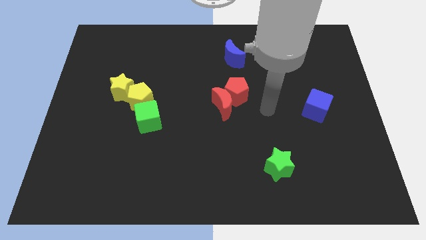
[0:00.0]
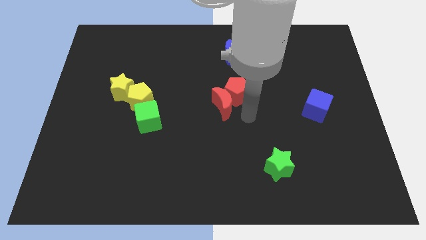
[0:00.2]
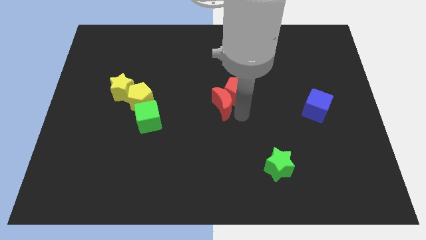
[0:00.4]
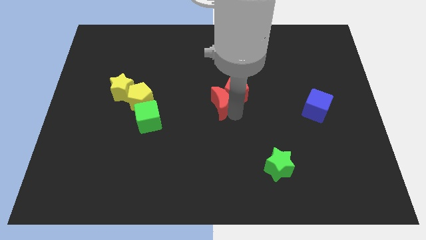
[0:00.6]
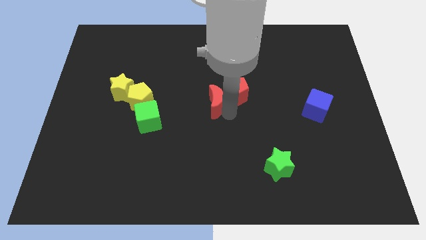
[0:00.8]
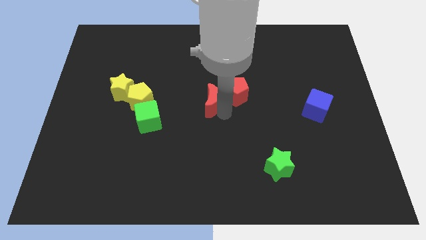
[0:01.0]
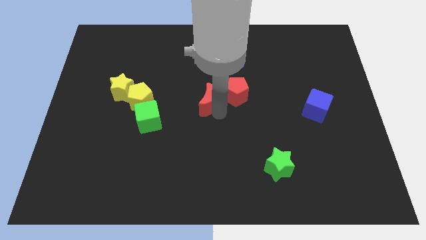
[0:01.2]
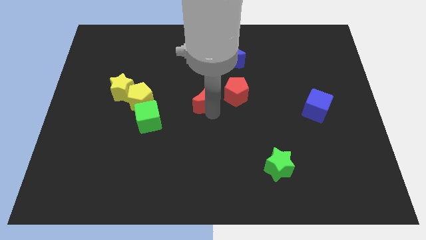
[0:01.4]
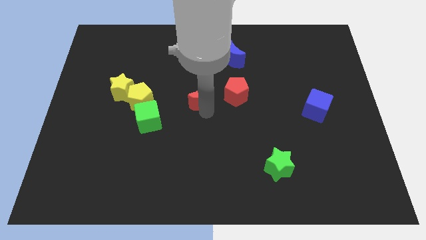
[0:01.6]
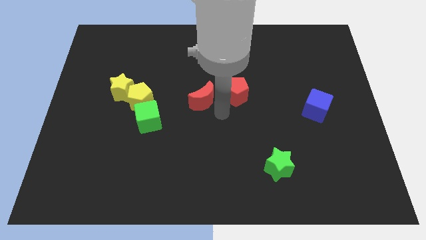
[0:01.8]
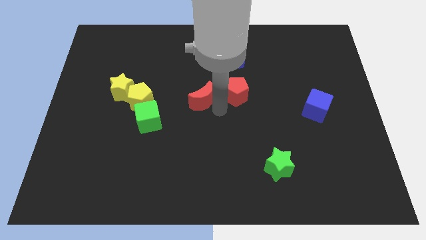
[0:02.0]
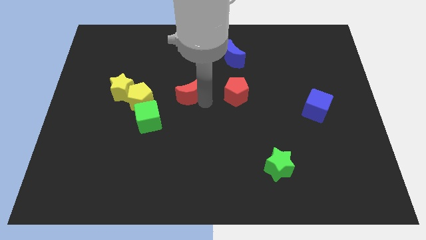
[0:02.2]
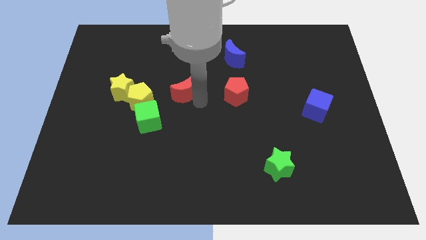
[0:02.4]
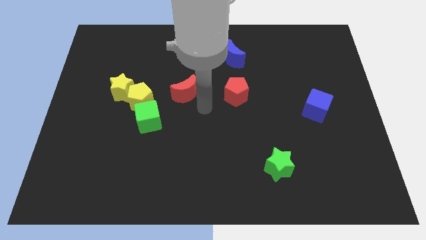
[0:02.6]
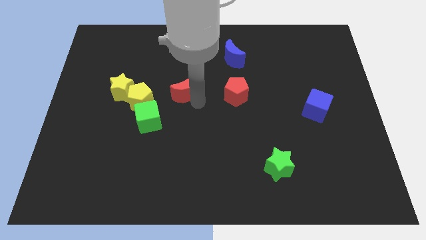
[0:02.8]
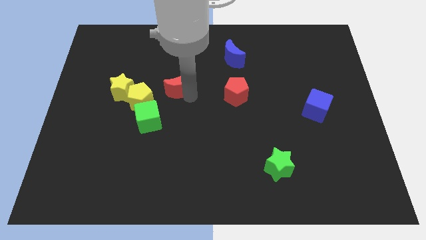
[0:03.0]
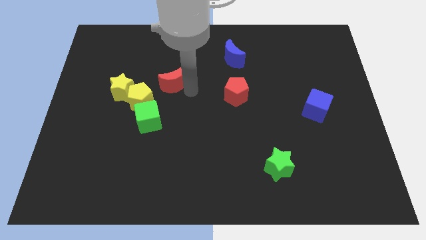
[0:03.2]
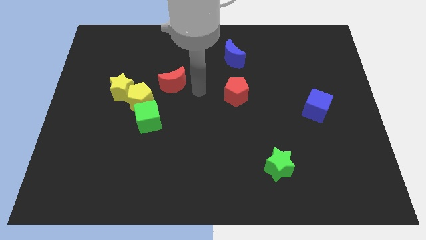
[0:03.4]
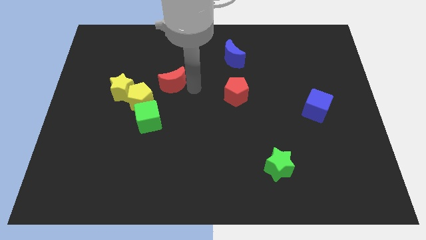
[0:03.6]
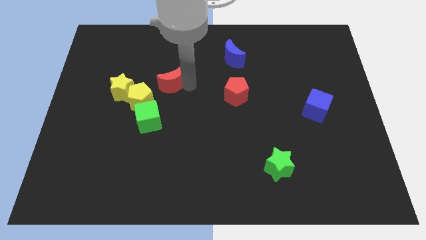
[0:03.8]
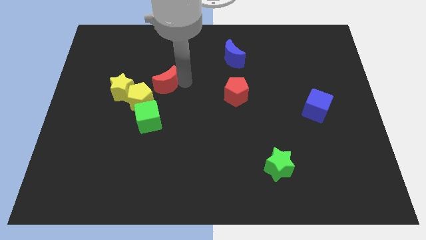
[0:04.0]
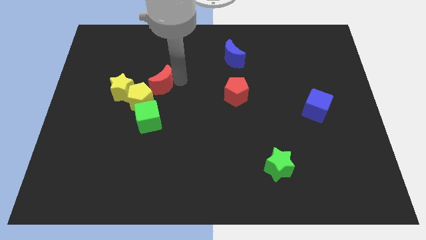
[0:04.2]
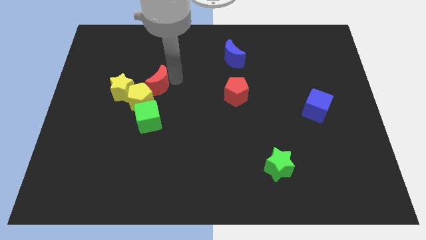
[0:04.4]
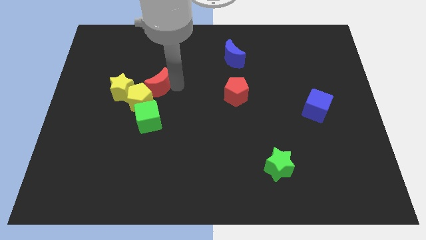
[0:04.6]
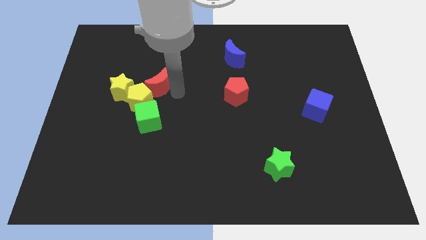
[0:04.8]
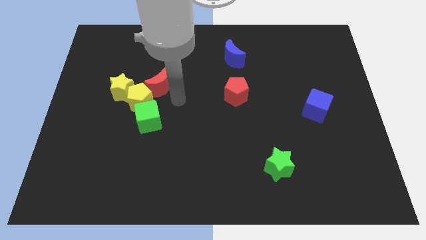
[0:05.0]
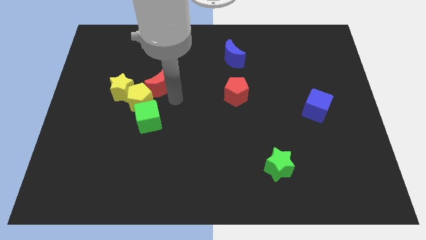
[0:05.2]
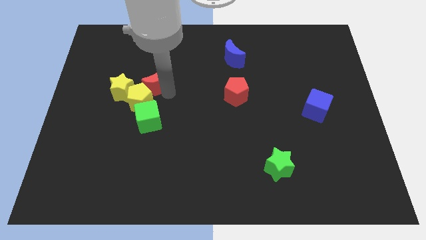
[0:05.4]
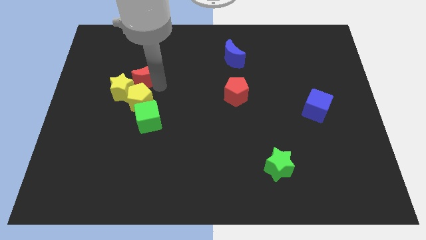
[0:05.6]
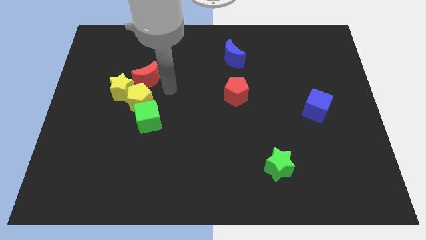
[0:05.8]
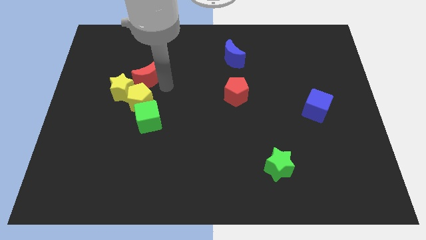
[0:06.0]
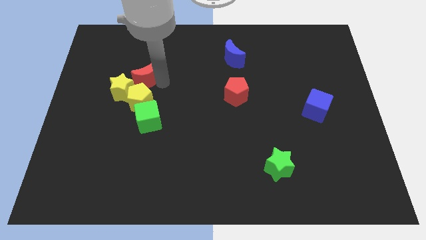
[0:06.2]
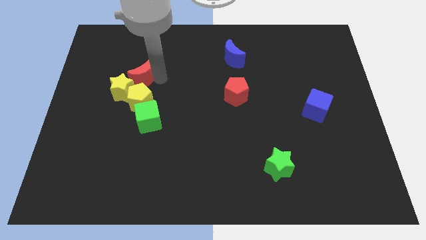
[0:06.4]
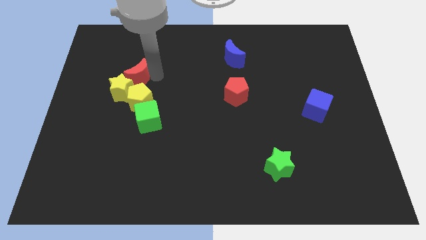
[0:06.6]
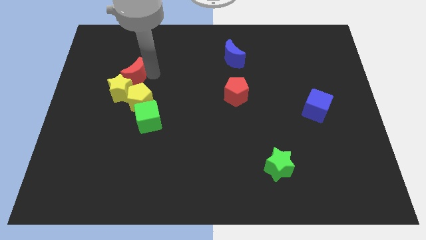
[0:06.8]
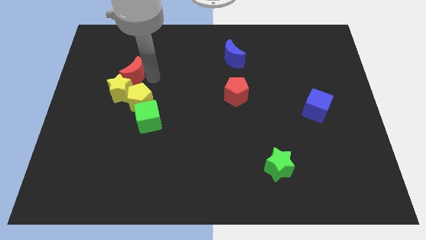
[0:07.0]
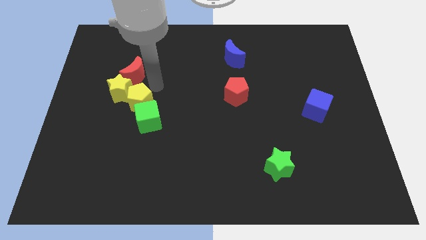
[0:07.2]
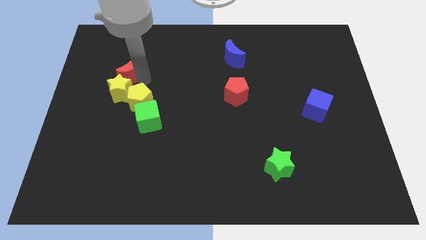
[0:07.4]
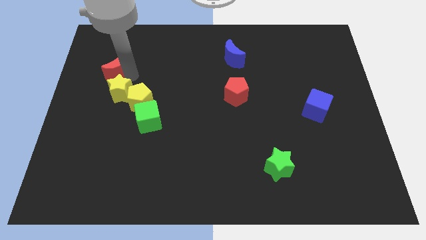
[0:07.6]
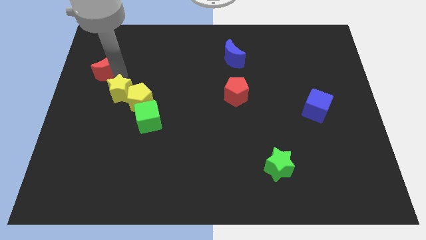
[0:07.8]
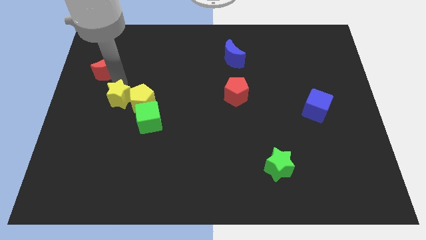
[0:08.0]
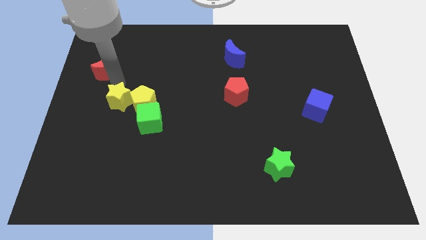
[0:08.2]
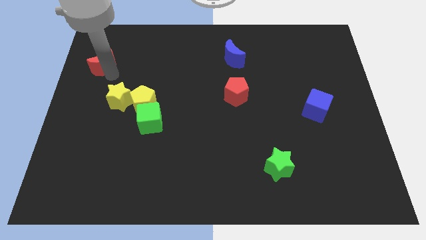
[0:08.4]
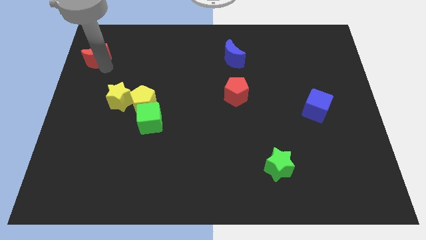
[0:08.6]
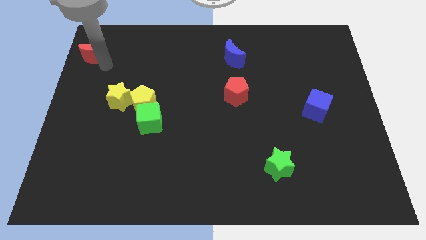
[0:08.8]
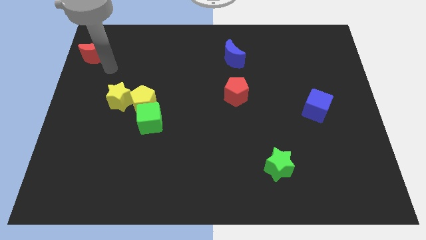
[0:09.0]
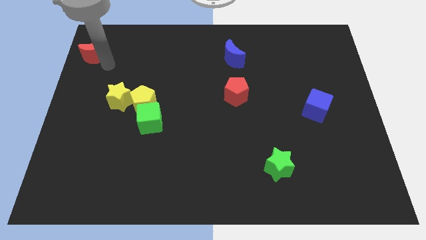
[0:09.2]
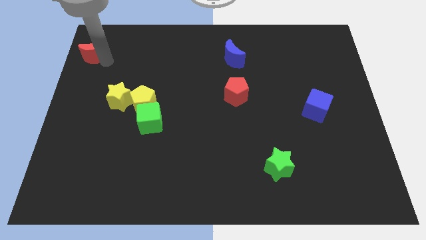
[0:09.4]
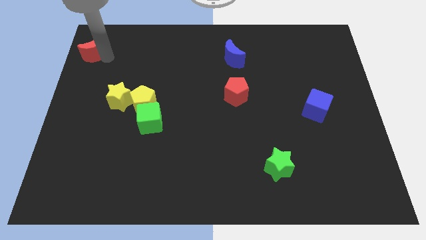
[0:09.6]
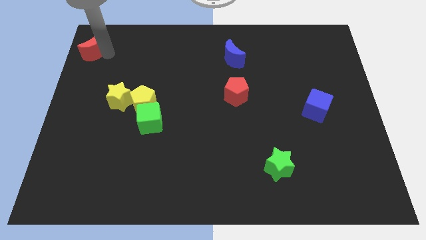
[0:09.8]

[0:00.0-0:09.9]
move the red moon to the top left corner

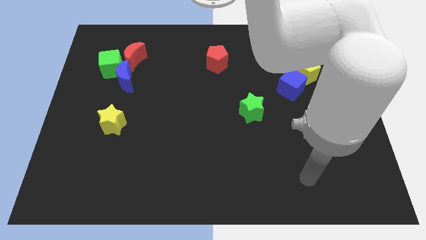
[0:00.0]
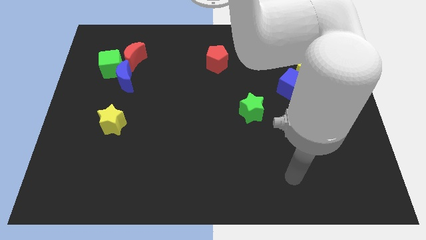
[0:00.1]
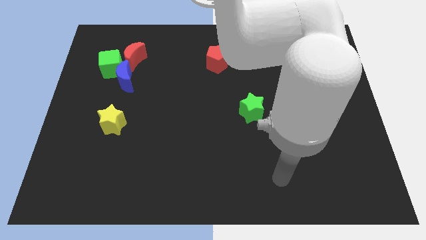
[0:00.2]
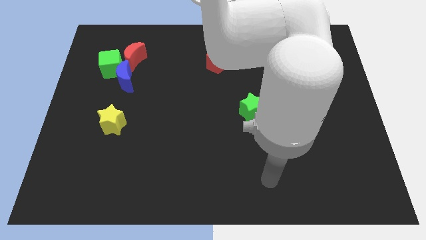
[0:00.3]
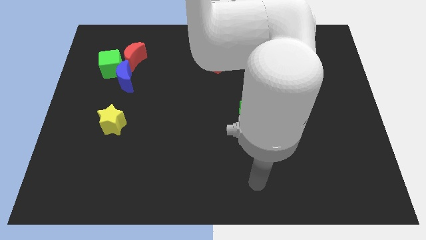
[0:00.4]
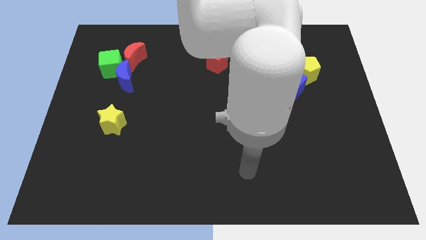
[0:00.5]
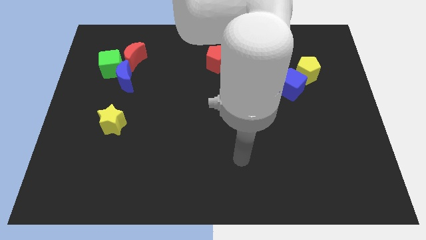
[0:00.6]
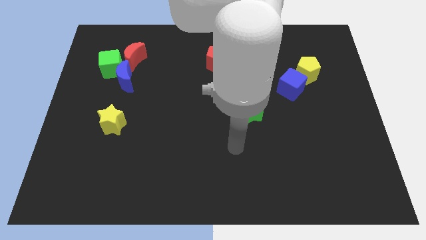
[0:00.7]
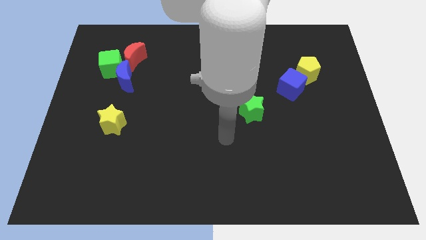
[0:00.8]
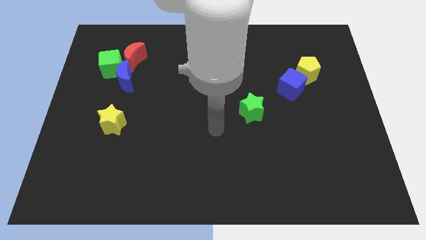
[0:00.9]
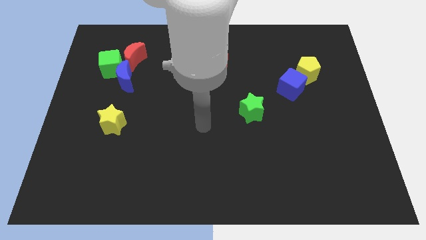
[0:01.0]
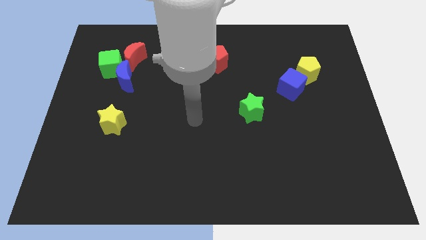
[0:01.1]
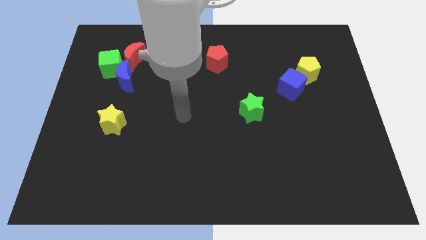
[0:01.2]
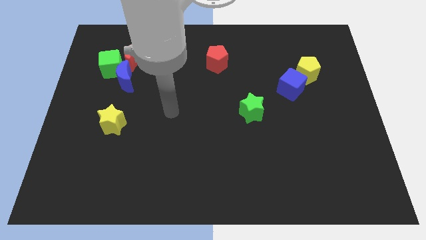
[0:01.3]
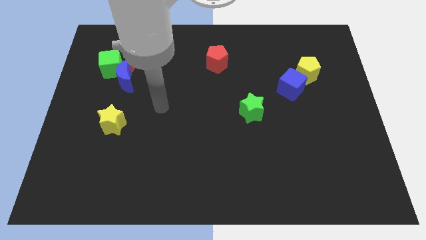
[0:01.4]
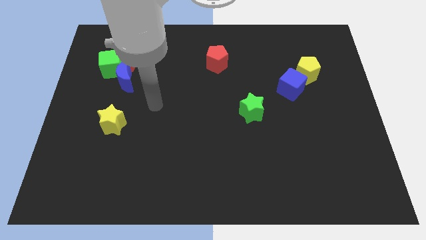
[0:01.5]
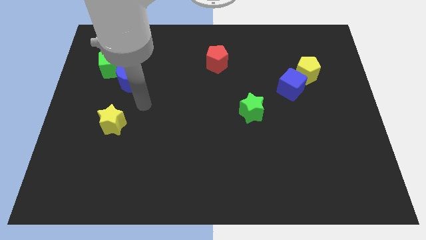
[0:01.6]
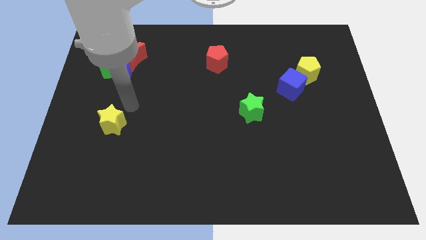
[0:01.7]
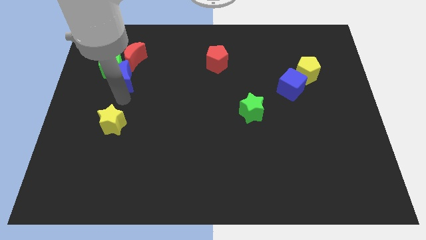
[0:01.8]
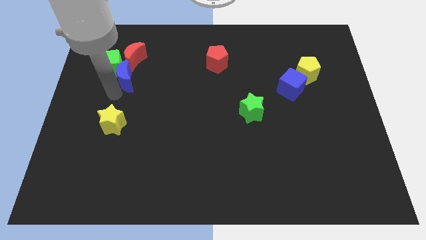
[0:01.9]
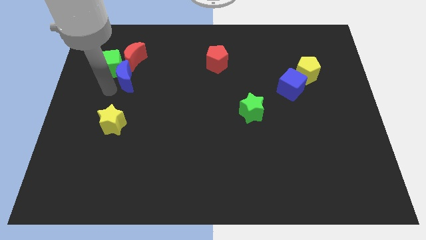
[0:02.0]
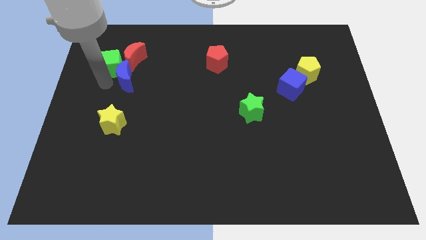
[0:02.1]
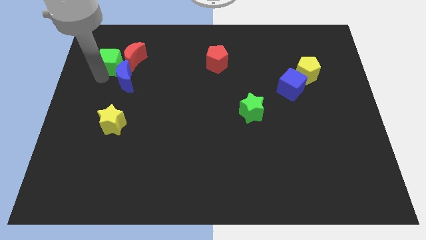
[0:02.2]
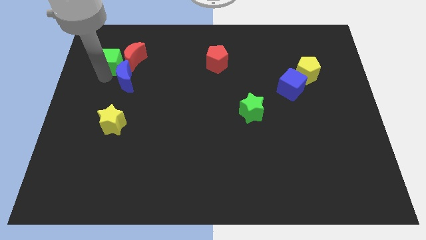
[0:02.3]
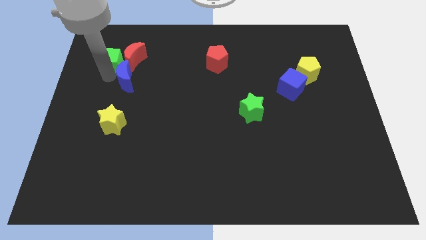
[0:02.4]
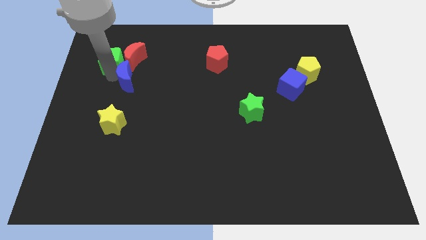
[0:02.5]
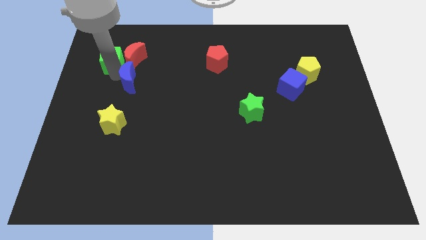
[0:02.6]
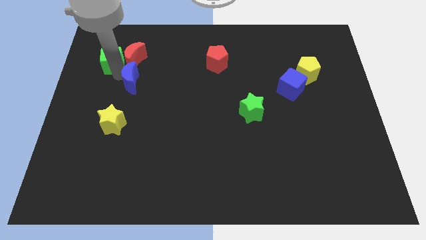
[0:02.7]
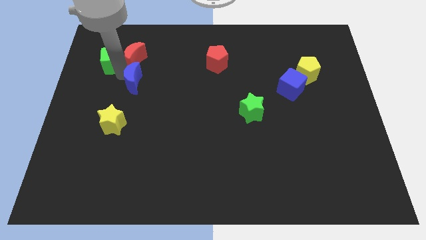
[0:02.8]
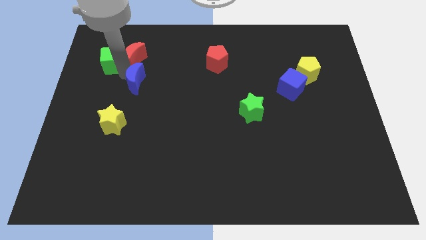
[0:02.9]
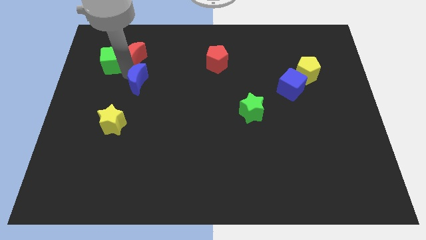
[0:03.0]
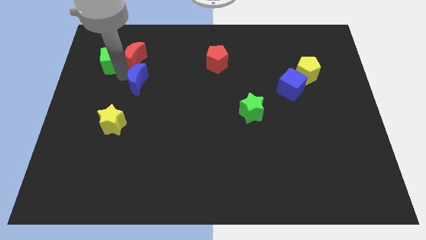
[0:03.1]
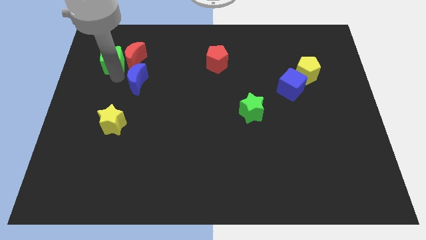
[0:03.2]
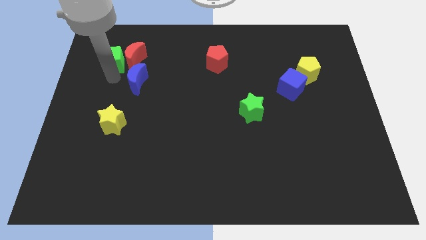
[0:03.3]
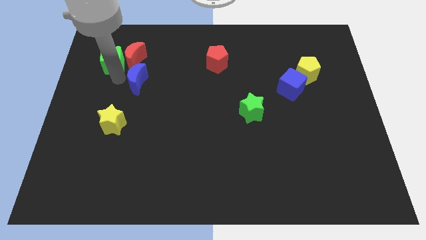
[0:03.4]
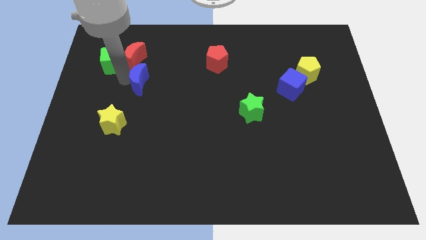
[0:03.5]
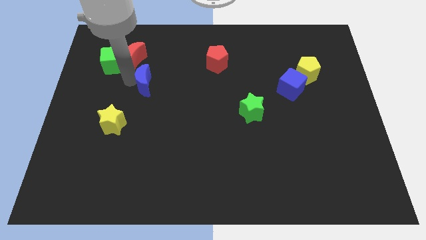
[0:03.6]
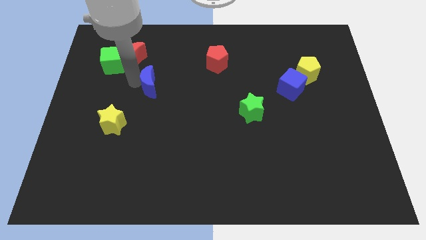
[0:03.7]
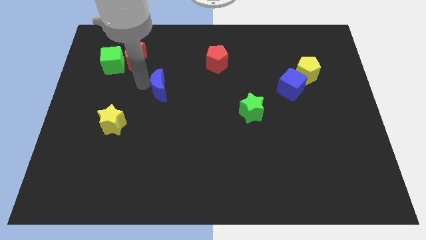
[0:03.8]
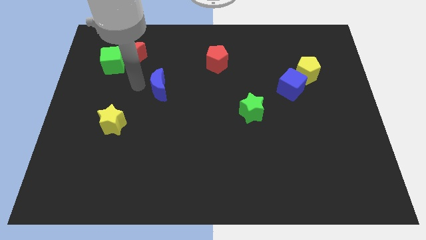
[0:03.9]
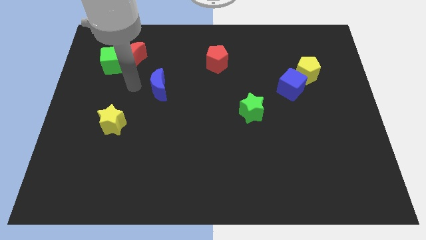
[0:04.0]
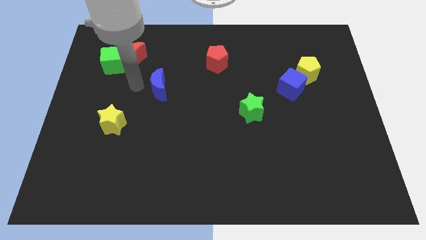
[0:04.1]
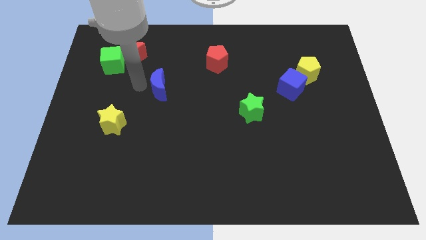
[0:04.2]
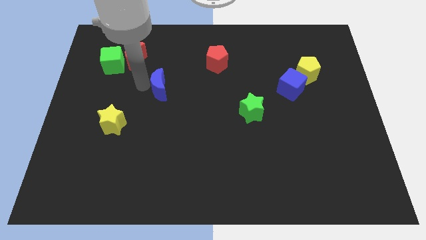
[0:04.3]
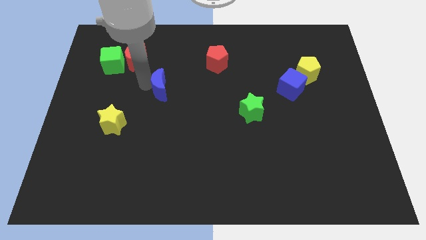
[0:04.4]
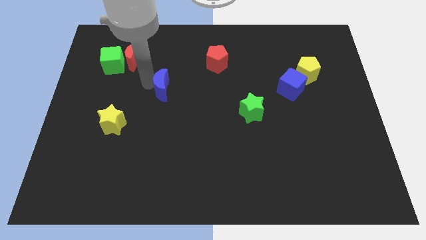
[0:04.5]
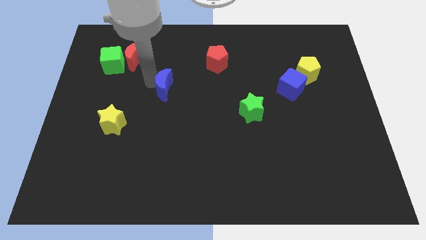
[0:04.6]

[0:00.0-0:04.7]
put the blue moon to the middle of the board
